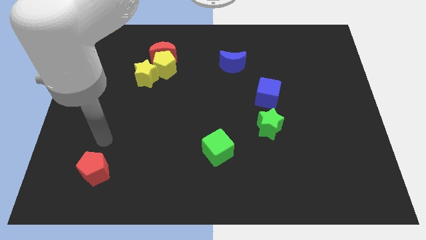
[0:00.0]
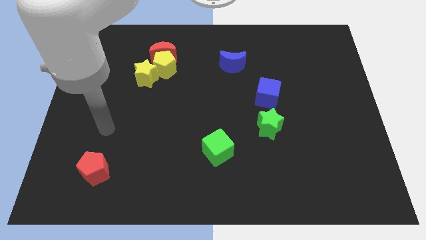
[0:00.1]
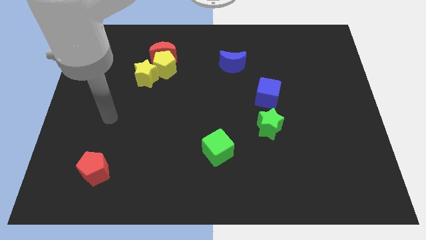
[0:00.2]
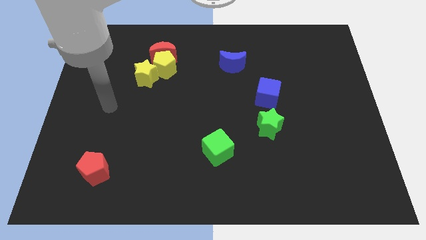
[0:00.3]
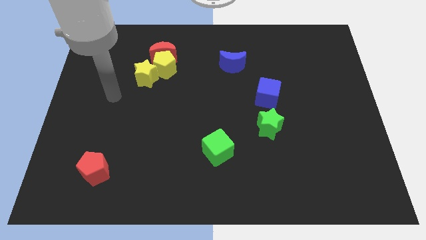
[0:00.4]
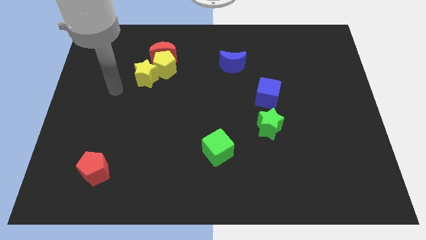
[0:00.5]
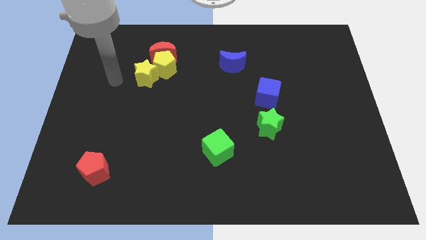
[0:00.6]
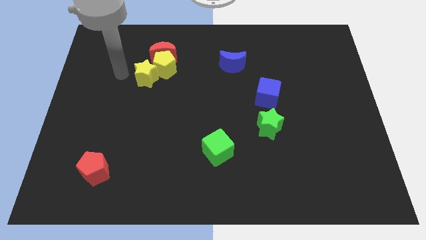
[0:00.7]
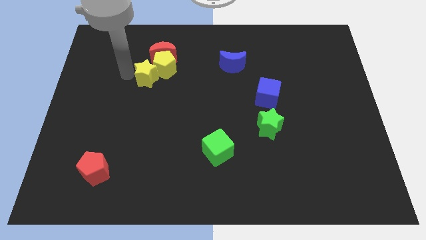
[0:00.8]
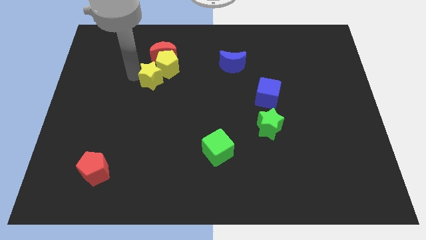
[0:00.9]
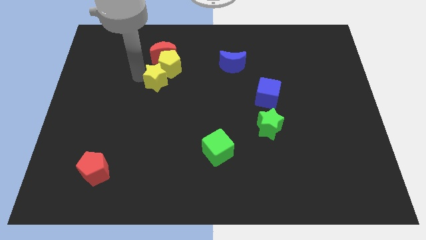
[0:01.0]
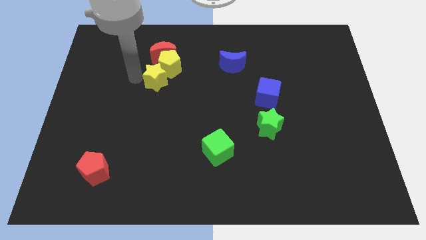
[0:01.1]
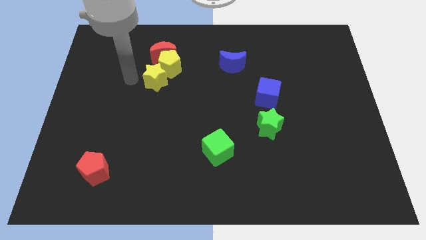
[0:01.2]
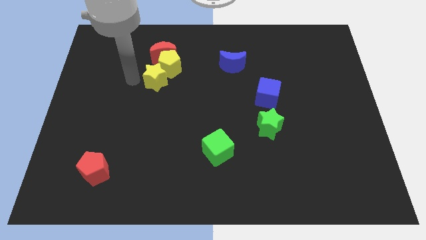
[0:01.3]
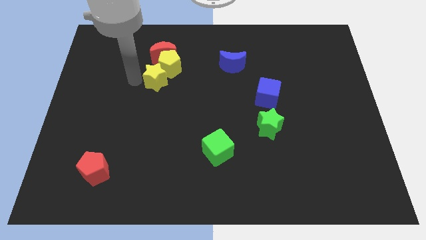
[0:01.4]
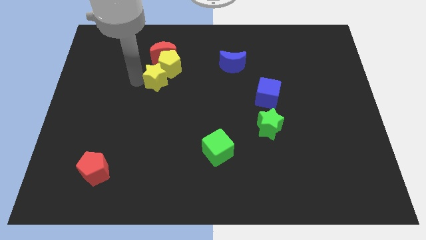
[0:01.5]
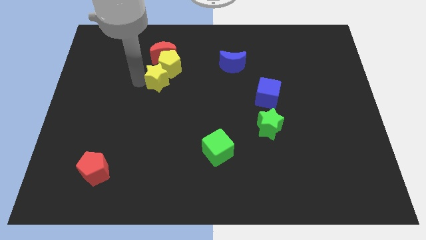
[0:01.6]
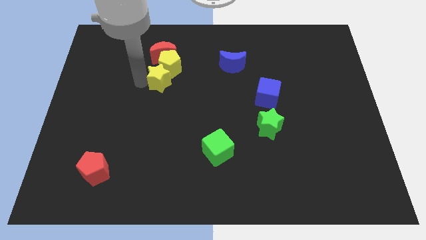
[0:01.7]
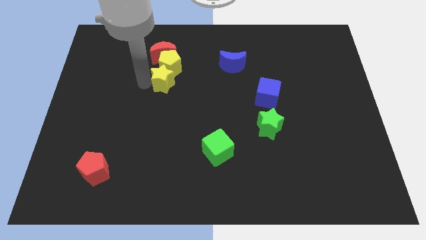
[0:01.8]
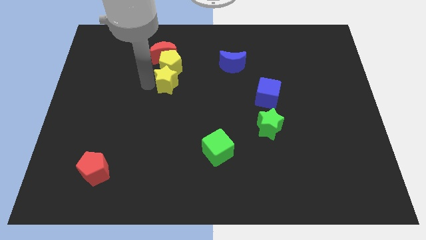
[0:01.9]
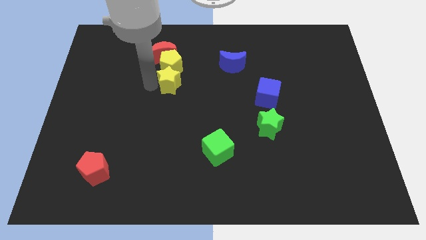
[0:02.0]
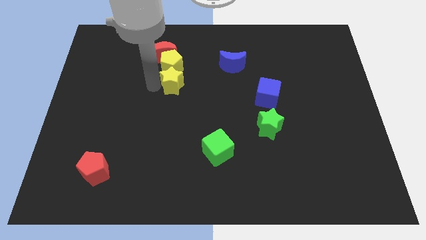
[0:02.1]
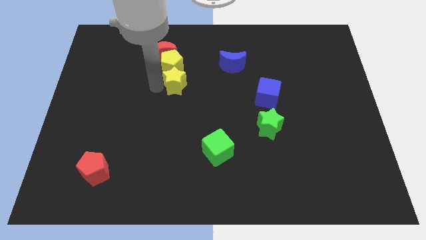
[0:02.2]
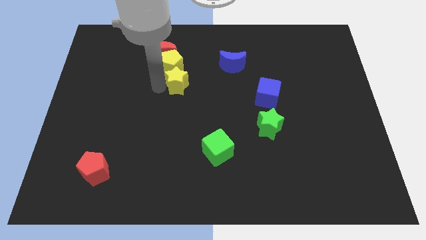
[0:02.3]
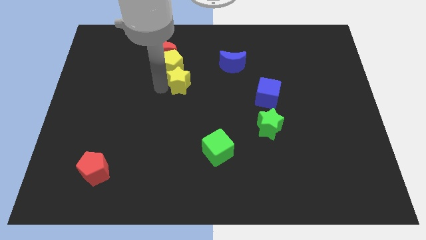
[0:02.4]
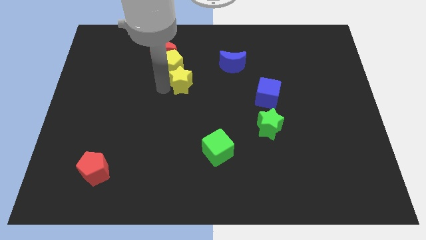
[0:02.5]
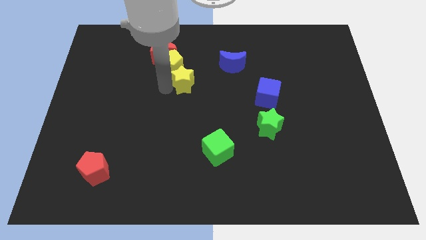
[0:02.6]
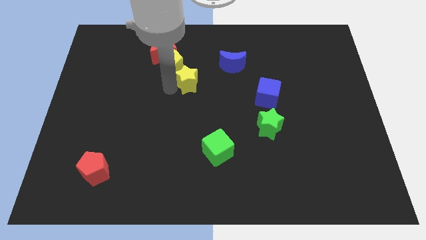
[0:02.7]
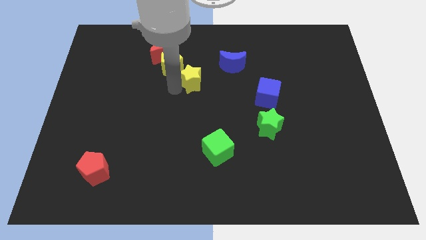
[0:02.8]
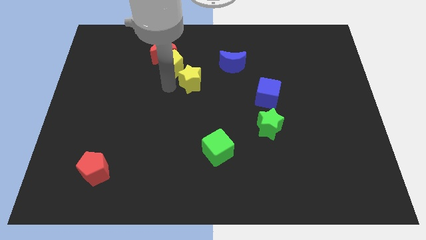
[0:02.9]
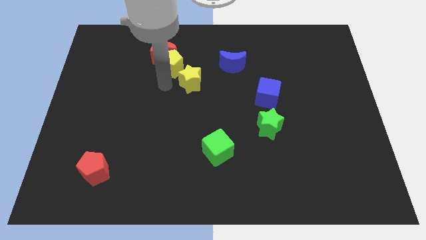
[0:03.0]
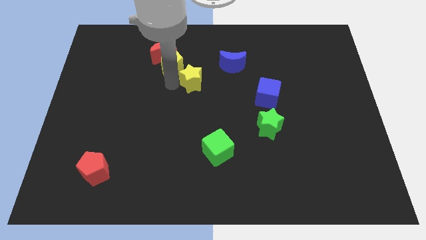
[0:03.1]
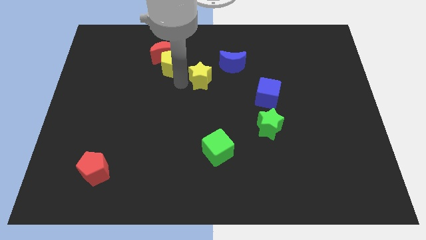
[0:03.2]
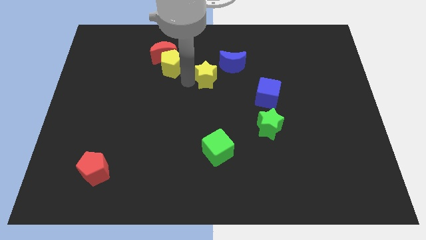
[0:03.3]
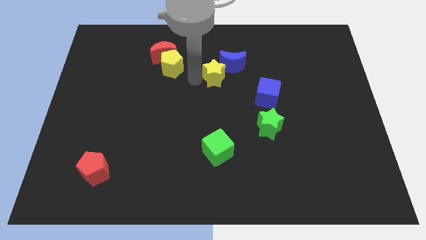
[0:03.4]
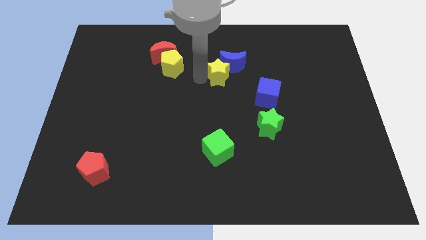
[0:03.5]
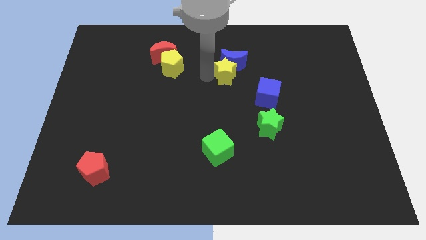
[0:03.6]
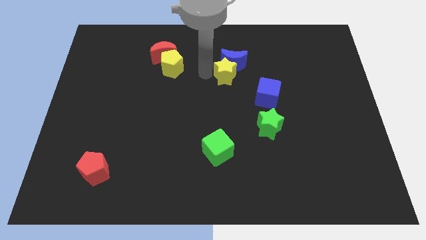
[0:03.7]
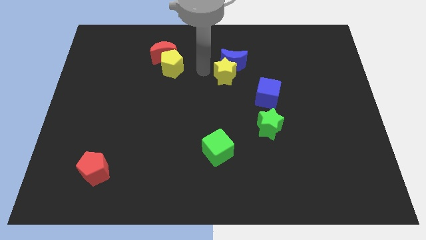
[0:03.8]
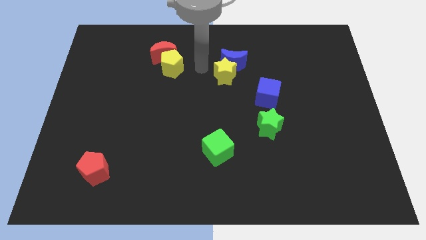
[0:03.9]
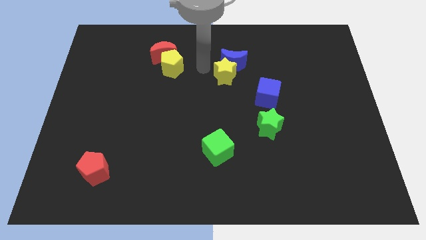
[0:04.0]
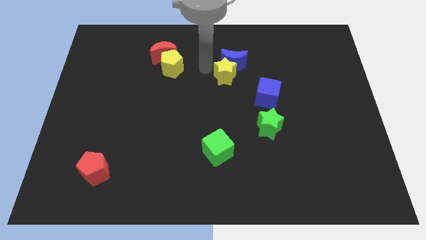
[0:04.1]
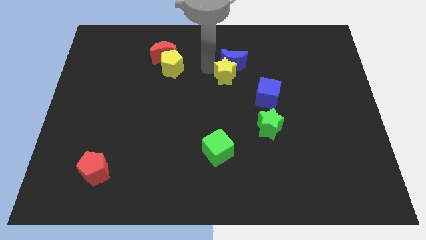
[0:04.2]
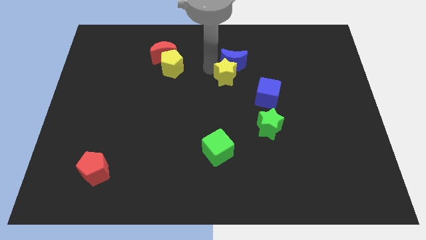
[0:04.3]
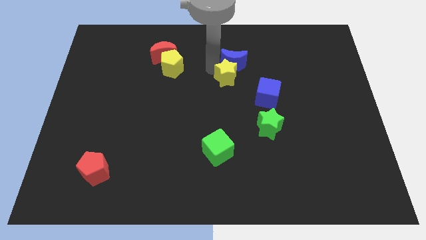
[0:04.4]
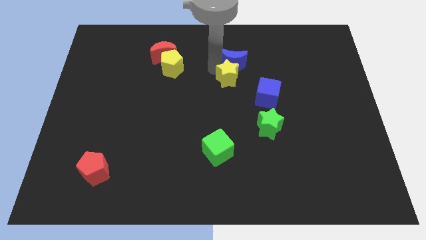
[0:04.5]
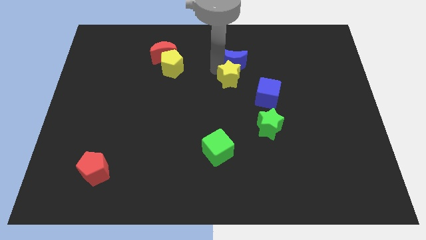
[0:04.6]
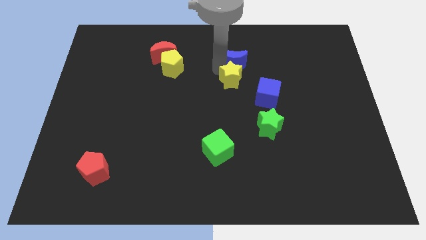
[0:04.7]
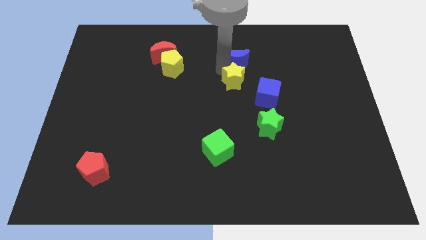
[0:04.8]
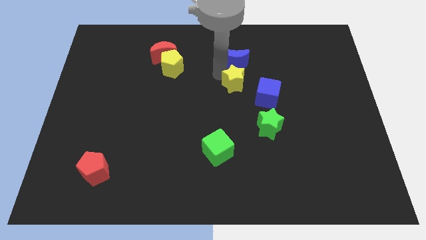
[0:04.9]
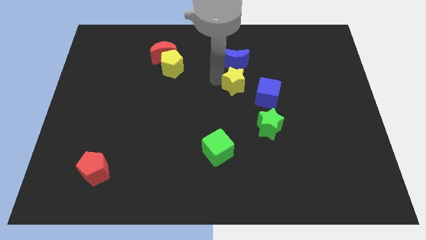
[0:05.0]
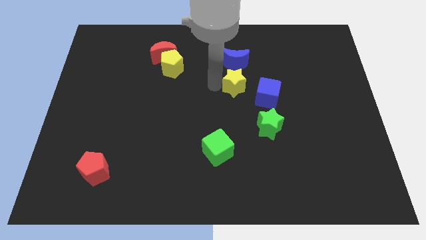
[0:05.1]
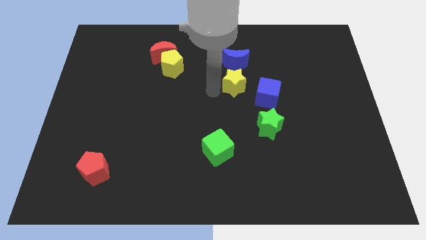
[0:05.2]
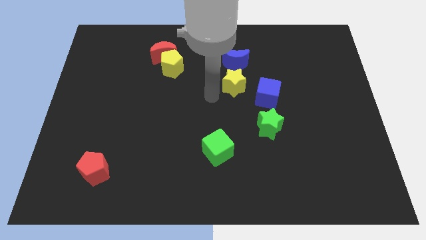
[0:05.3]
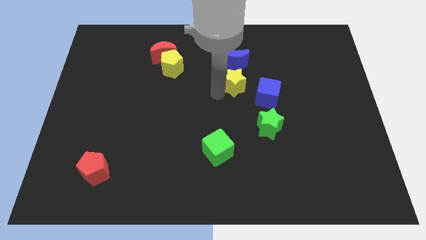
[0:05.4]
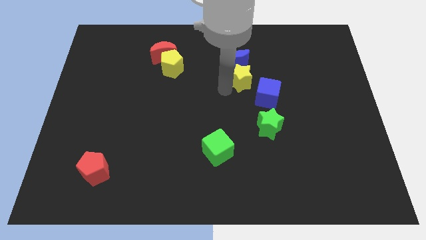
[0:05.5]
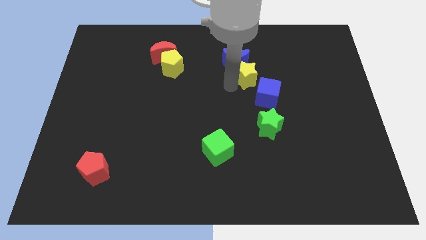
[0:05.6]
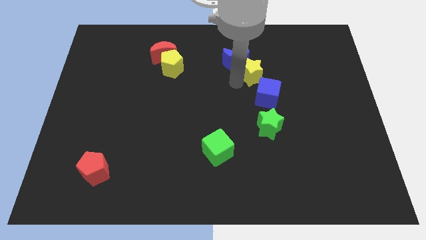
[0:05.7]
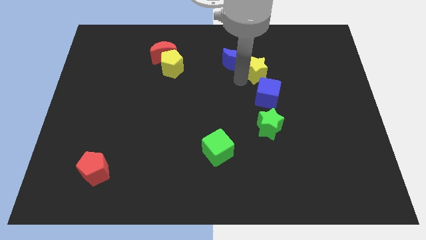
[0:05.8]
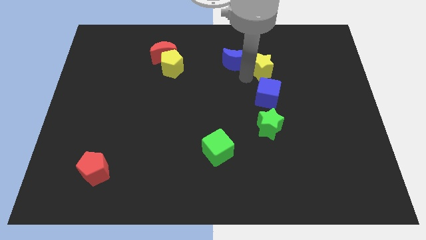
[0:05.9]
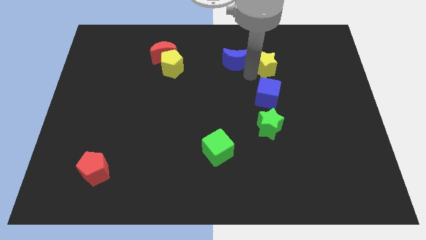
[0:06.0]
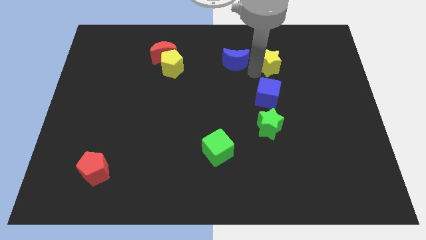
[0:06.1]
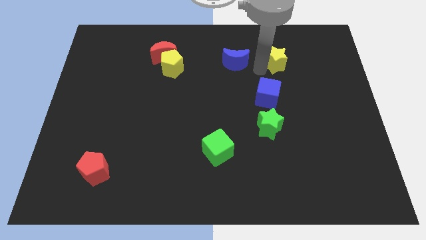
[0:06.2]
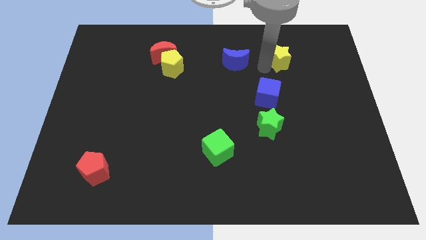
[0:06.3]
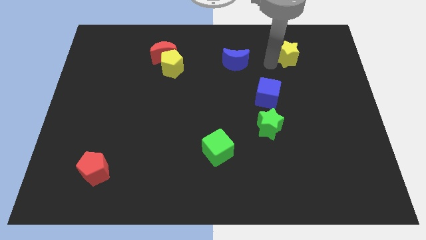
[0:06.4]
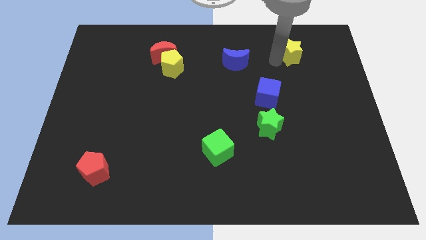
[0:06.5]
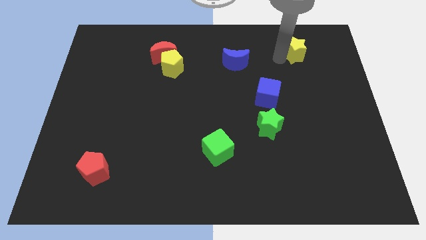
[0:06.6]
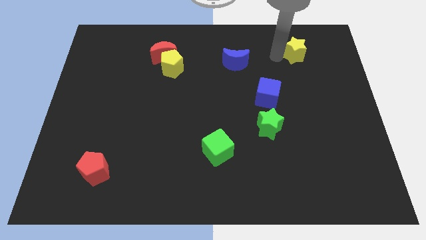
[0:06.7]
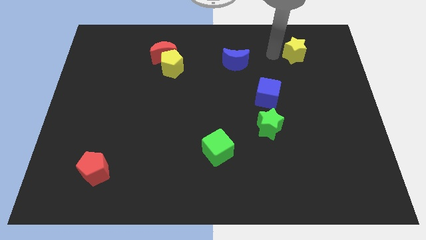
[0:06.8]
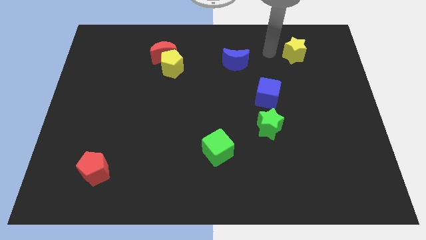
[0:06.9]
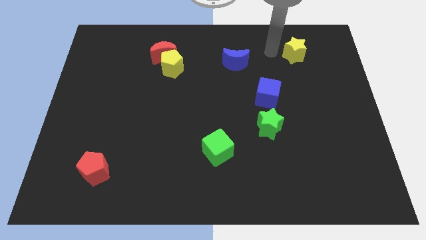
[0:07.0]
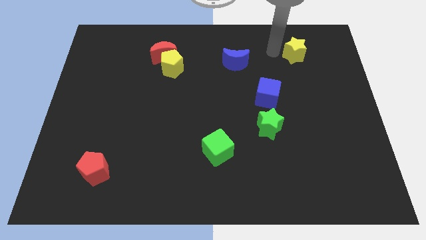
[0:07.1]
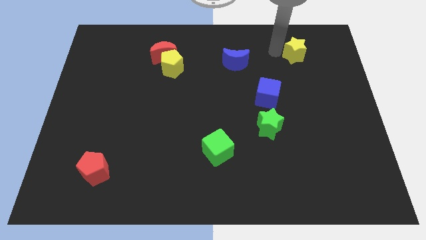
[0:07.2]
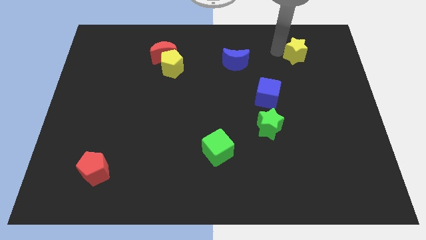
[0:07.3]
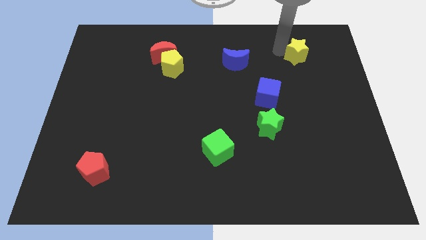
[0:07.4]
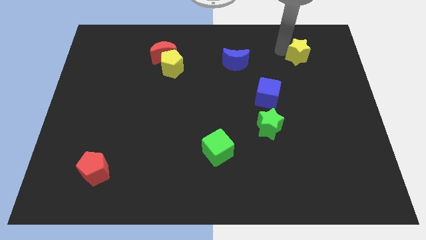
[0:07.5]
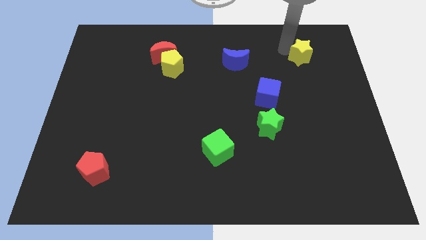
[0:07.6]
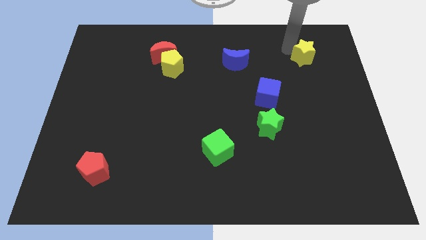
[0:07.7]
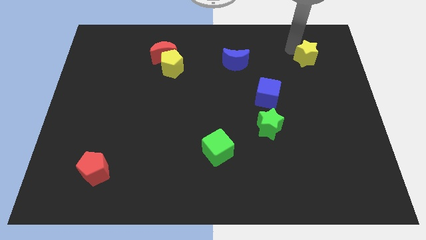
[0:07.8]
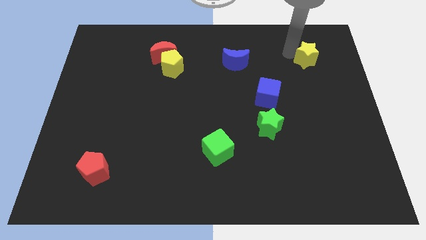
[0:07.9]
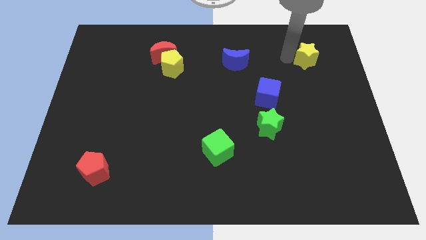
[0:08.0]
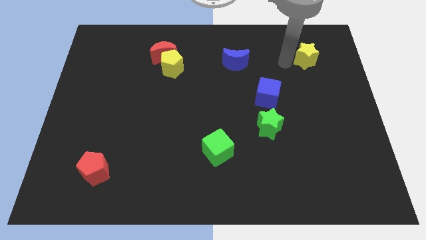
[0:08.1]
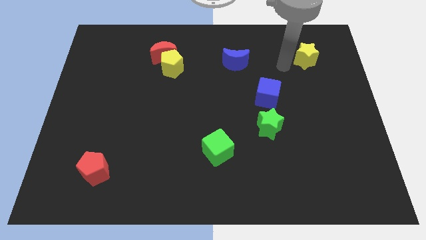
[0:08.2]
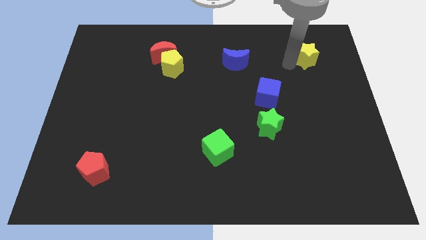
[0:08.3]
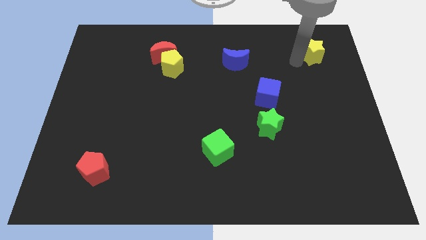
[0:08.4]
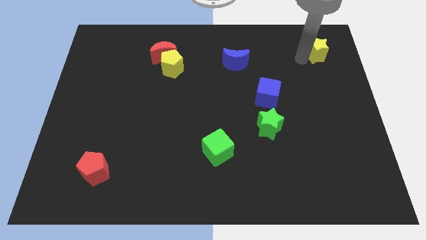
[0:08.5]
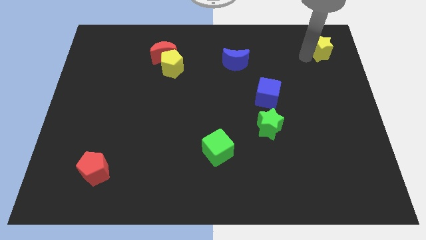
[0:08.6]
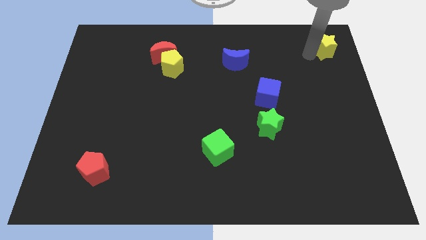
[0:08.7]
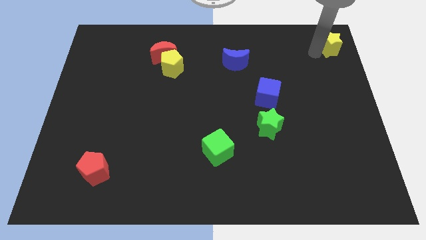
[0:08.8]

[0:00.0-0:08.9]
move the yellow star to the upper right corner
